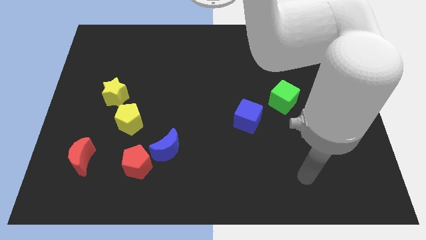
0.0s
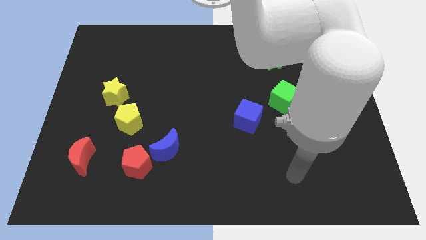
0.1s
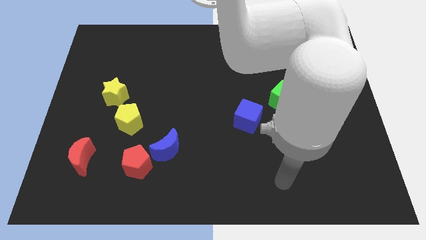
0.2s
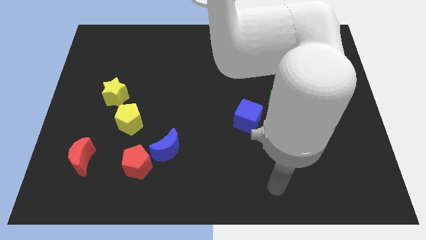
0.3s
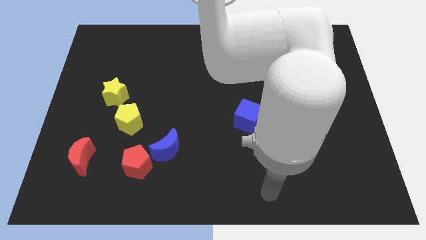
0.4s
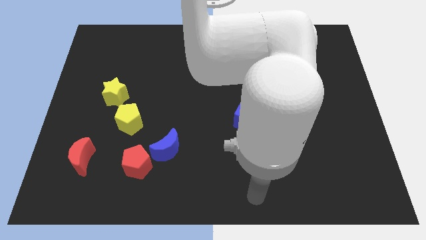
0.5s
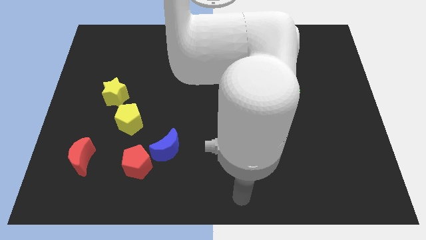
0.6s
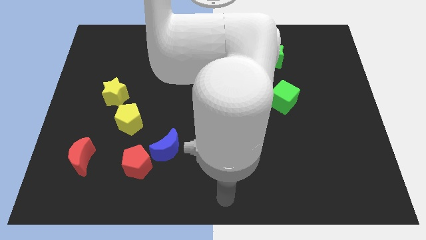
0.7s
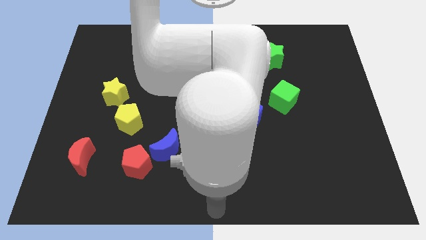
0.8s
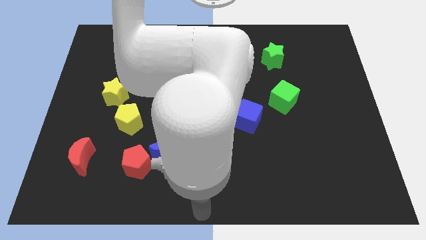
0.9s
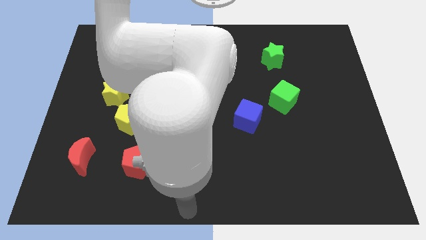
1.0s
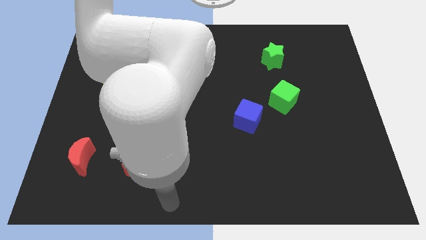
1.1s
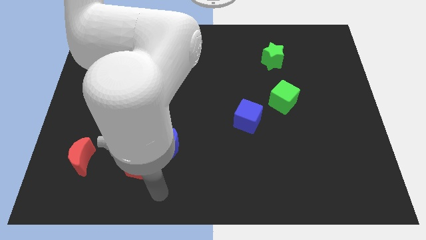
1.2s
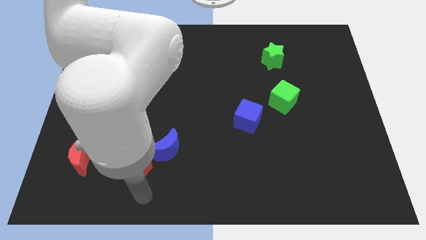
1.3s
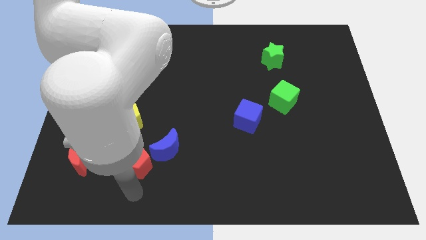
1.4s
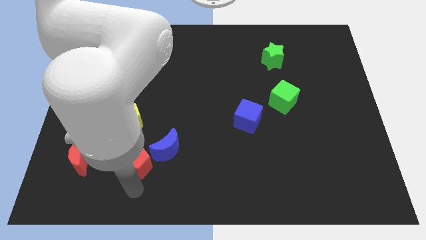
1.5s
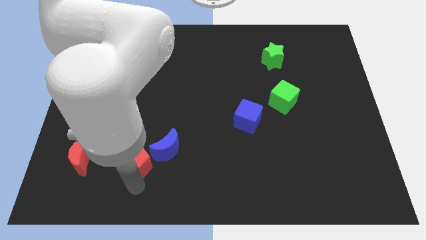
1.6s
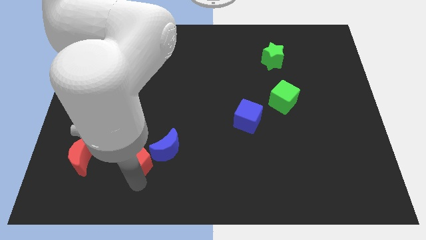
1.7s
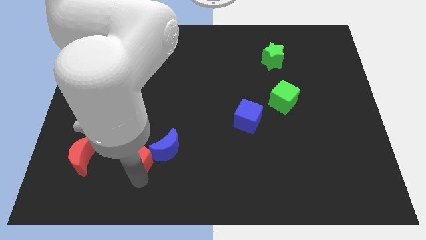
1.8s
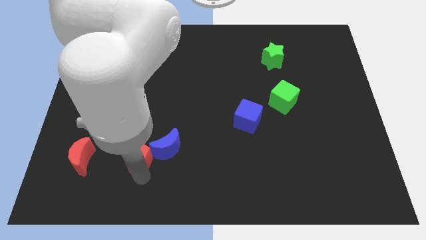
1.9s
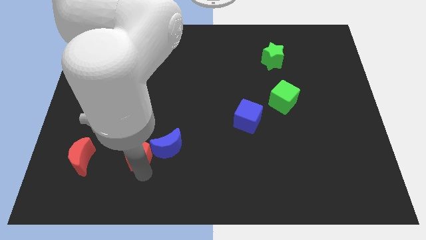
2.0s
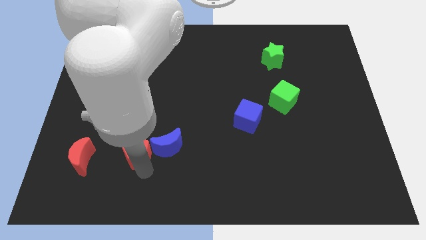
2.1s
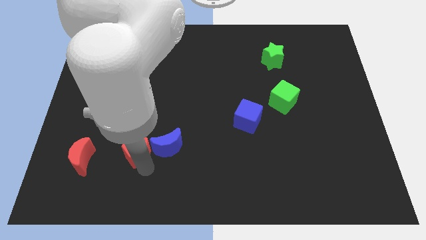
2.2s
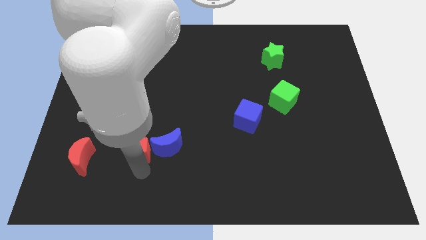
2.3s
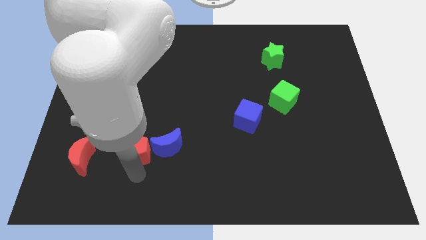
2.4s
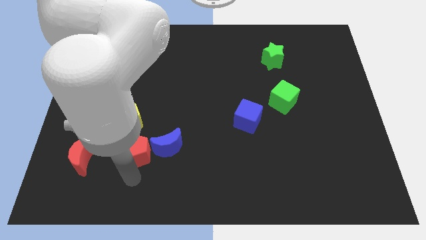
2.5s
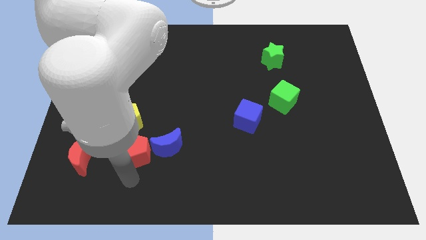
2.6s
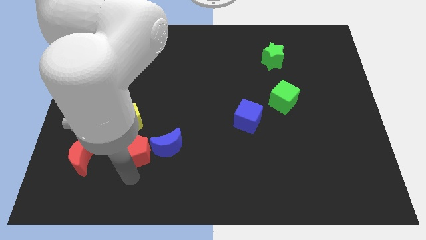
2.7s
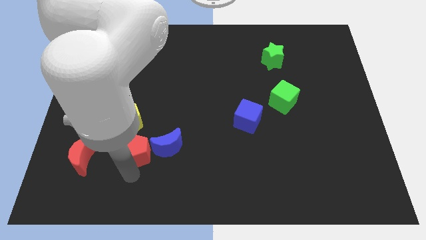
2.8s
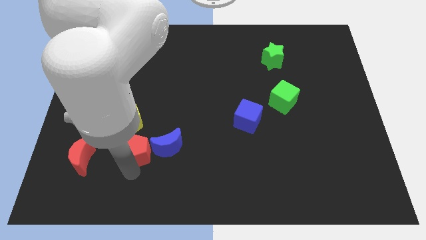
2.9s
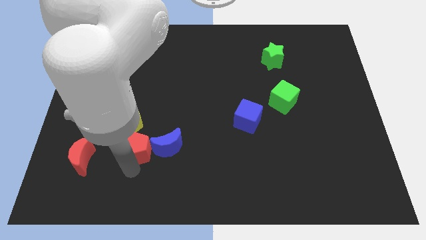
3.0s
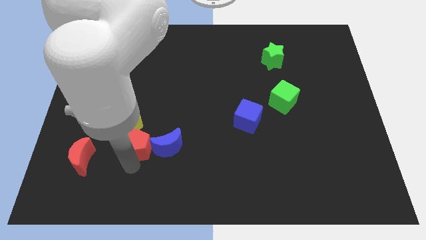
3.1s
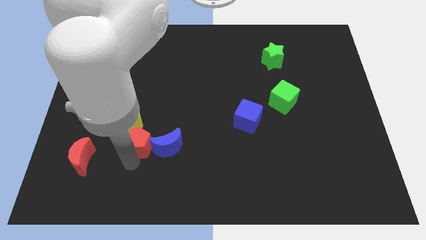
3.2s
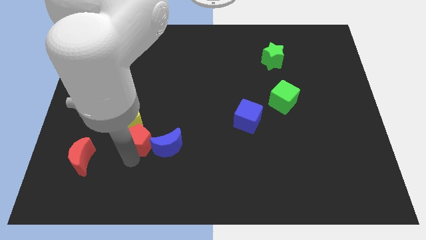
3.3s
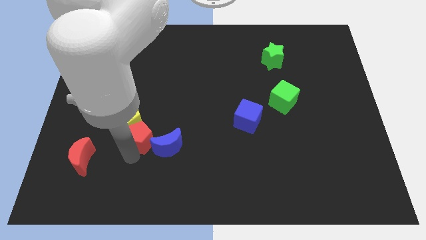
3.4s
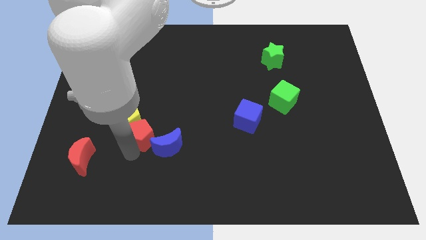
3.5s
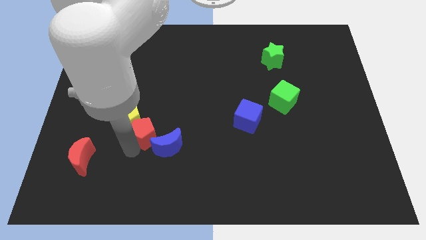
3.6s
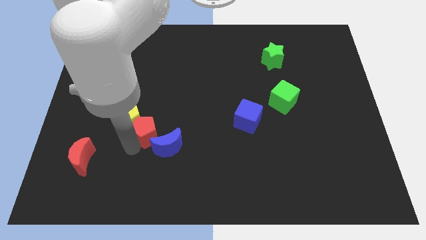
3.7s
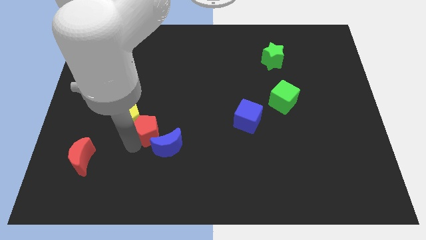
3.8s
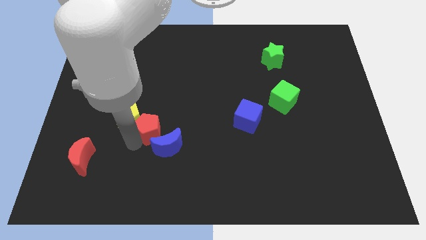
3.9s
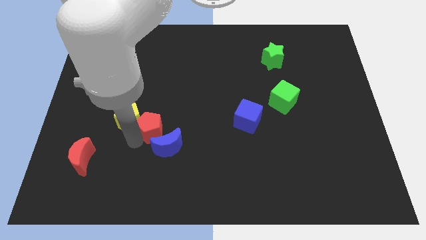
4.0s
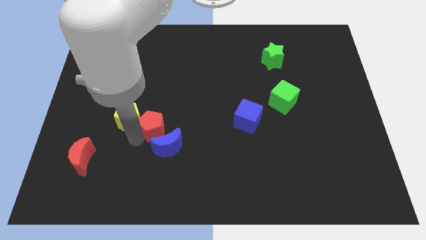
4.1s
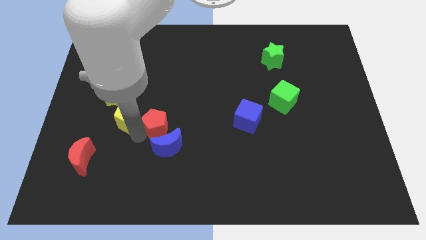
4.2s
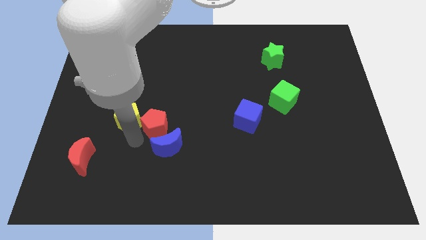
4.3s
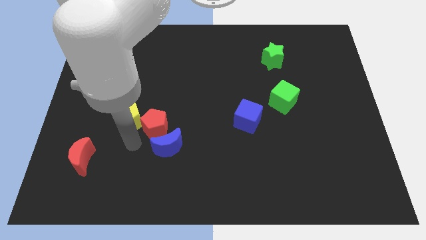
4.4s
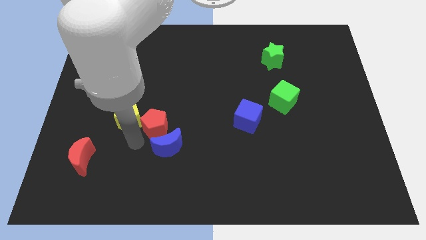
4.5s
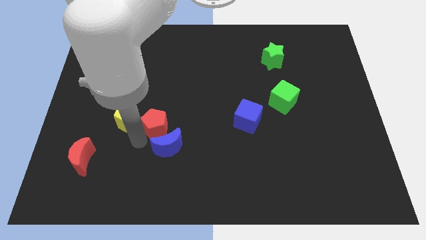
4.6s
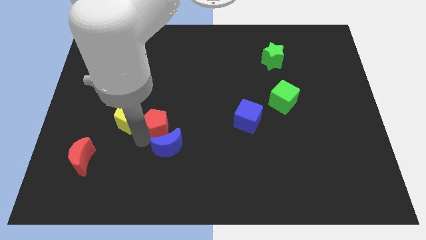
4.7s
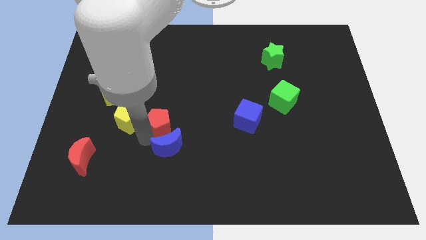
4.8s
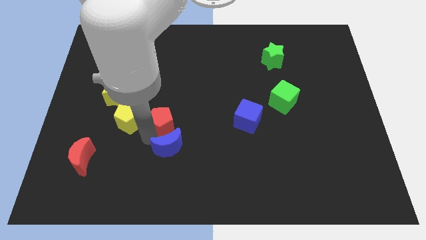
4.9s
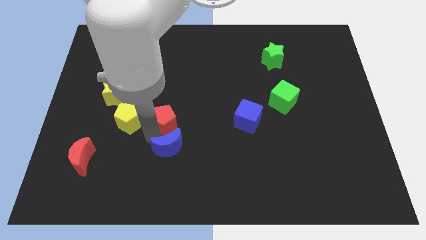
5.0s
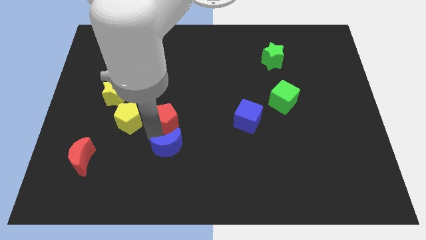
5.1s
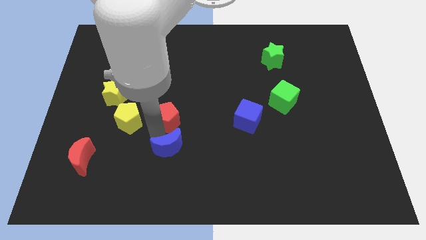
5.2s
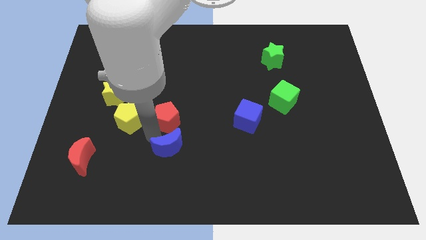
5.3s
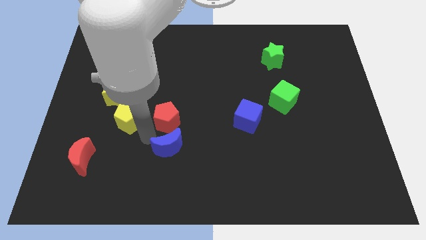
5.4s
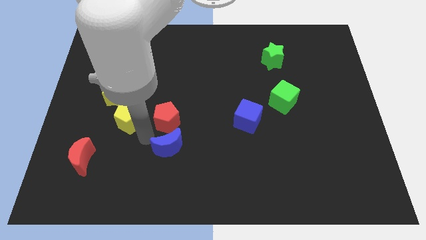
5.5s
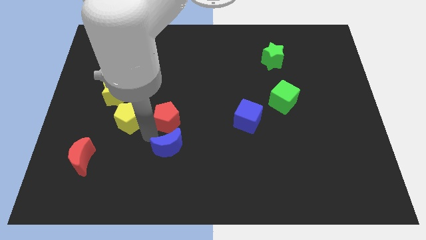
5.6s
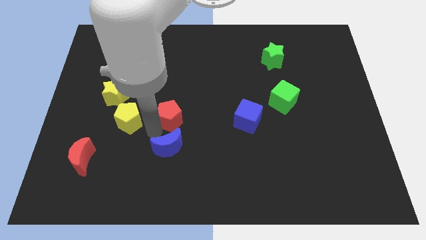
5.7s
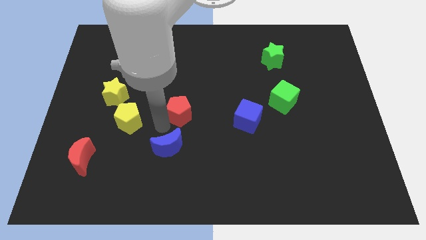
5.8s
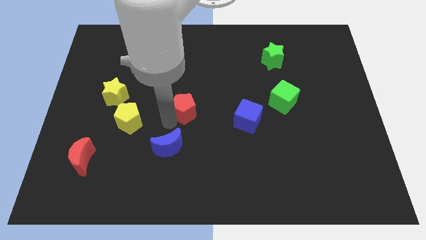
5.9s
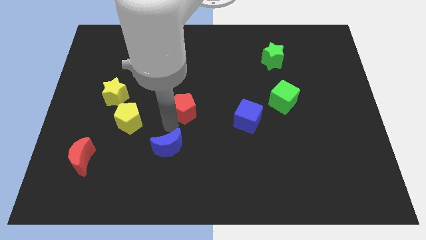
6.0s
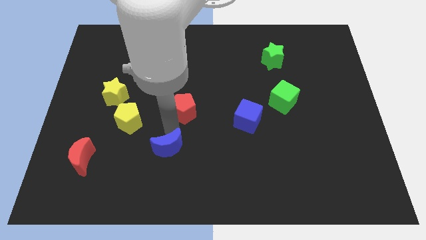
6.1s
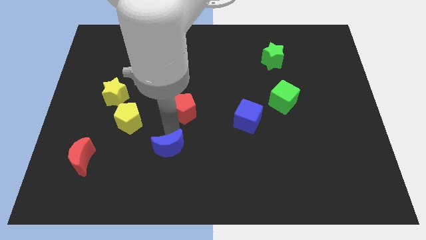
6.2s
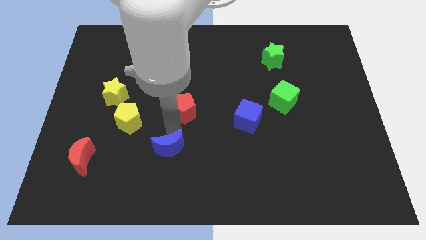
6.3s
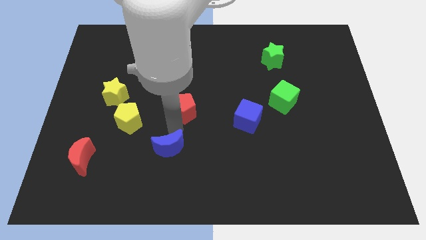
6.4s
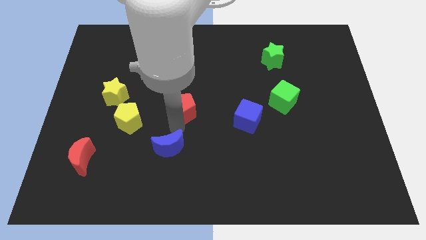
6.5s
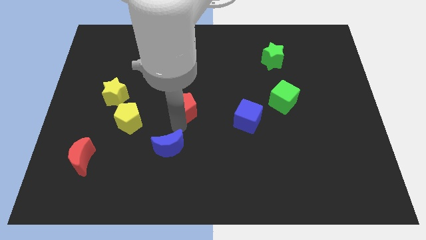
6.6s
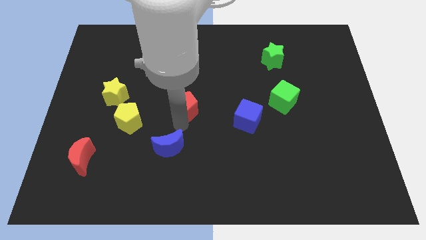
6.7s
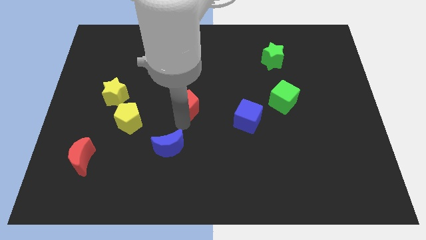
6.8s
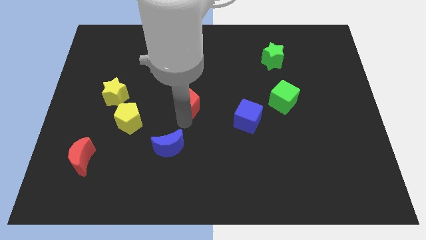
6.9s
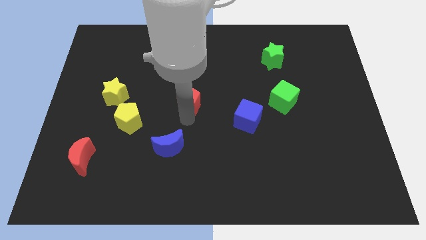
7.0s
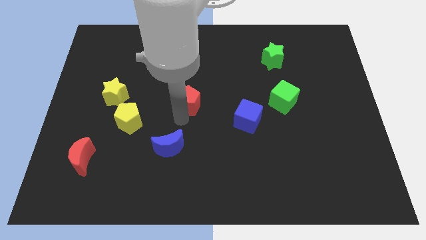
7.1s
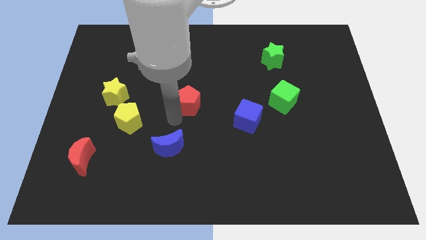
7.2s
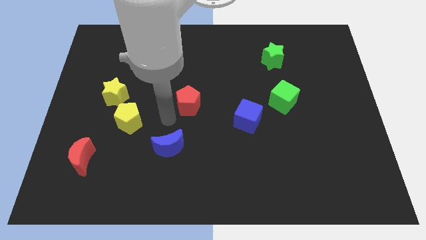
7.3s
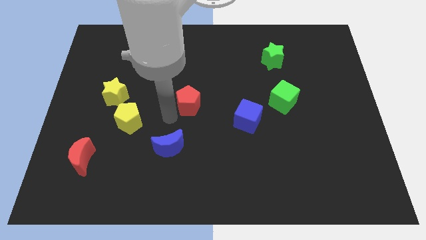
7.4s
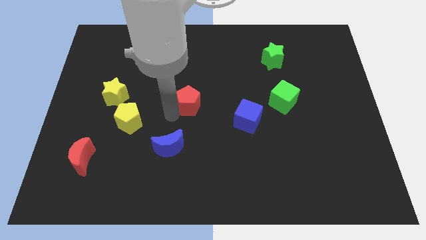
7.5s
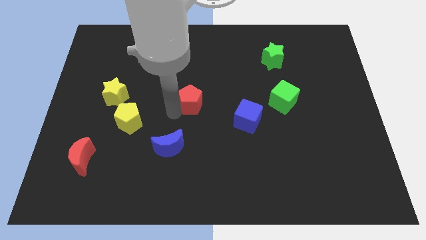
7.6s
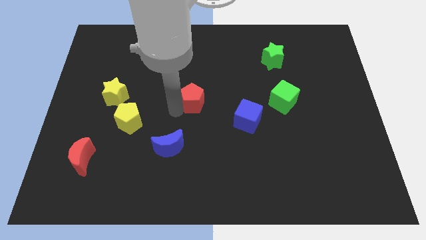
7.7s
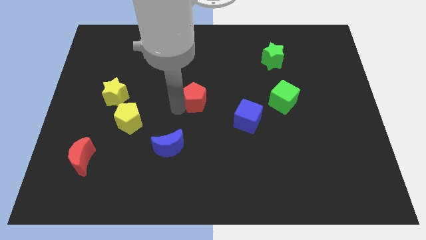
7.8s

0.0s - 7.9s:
slide the red pentagon up and right diagonally
